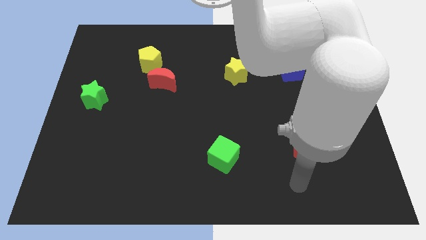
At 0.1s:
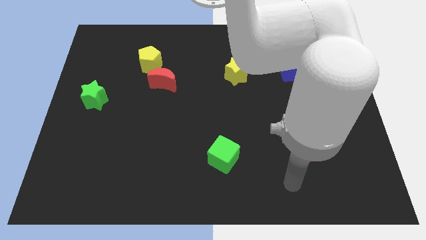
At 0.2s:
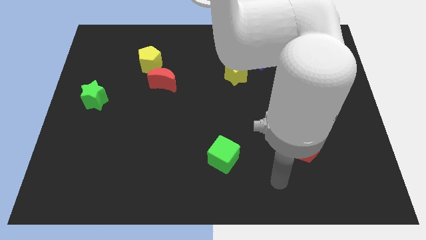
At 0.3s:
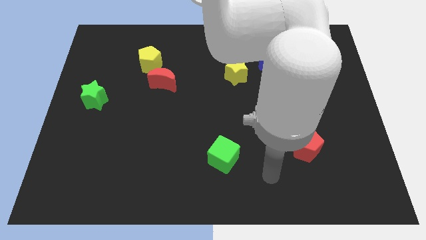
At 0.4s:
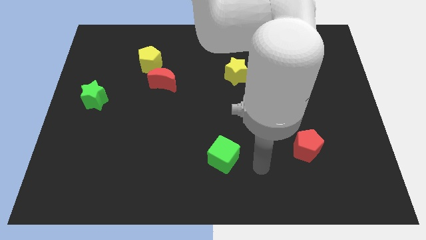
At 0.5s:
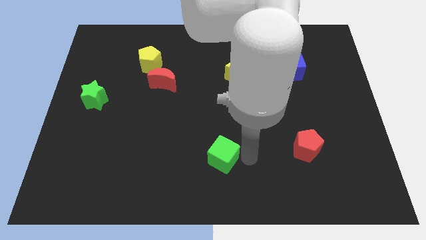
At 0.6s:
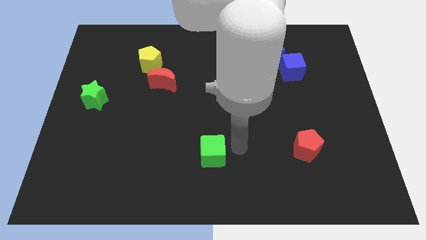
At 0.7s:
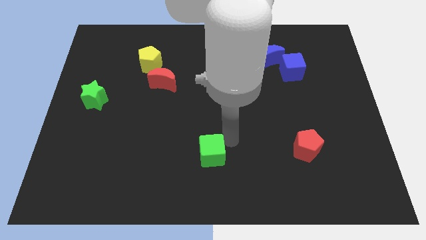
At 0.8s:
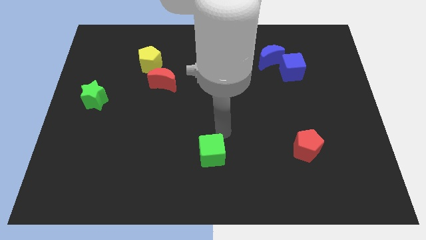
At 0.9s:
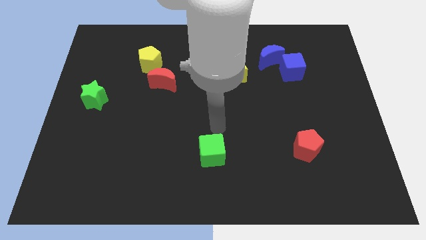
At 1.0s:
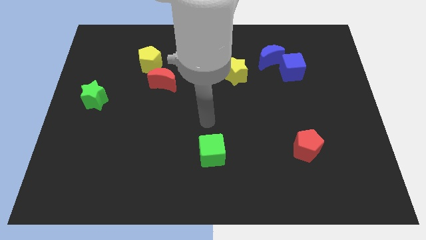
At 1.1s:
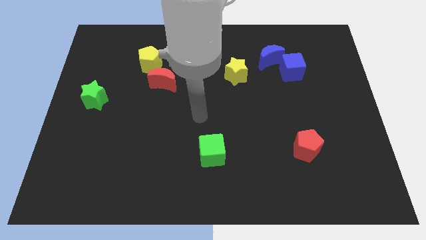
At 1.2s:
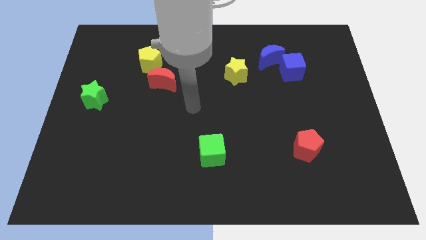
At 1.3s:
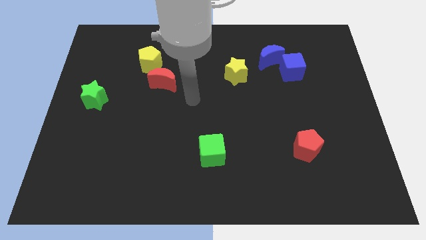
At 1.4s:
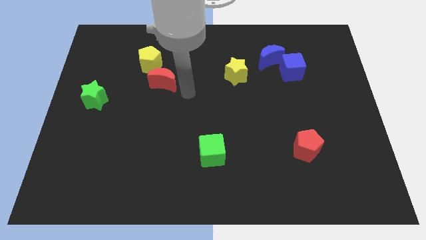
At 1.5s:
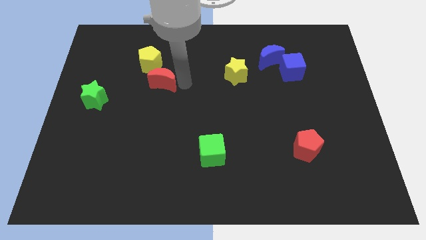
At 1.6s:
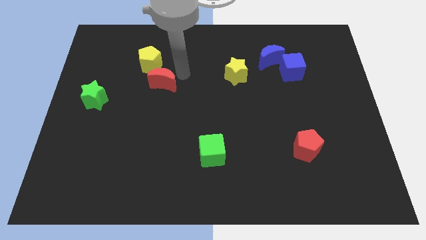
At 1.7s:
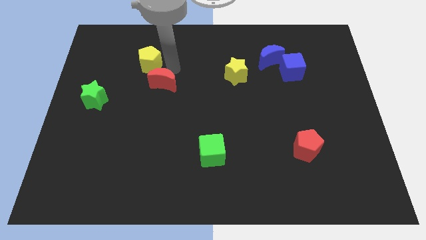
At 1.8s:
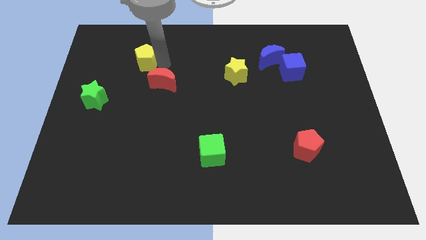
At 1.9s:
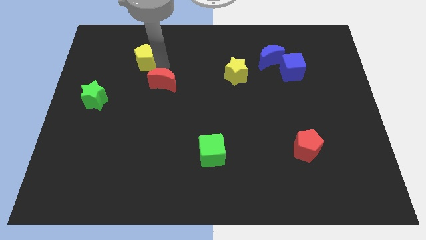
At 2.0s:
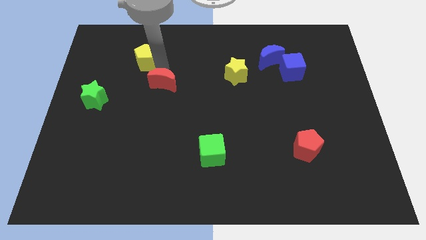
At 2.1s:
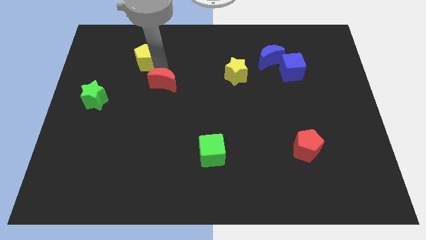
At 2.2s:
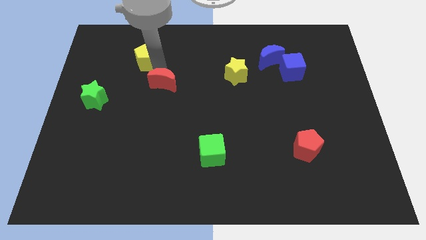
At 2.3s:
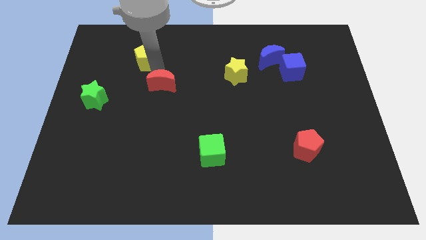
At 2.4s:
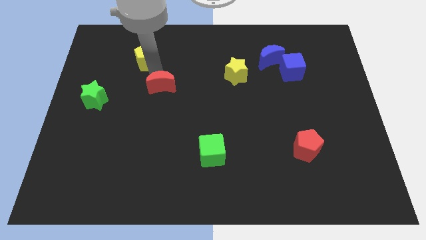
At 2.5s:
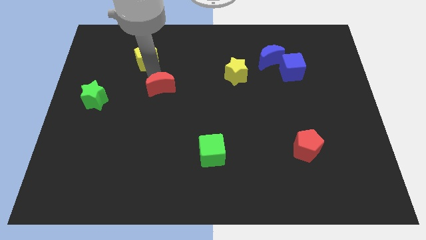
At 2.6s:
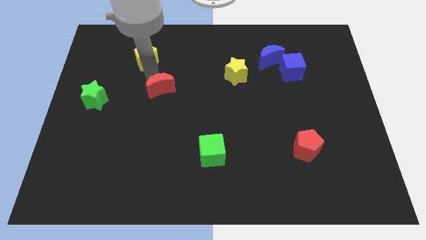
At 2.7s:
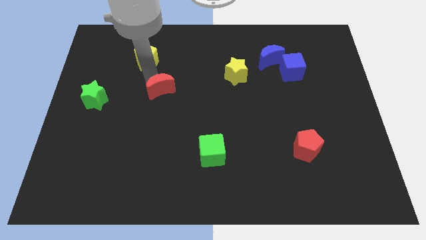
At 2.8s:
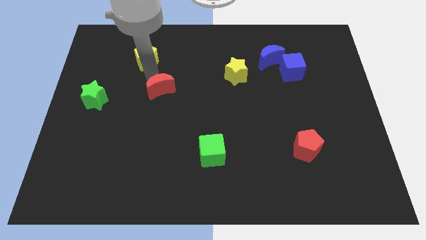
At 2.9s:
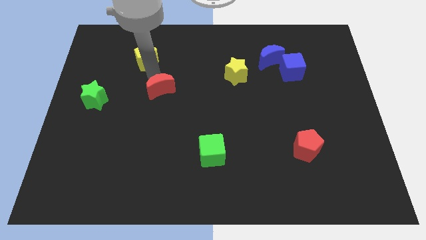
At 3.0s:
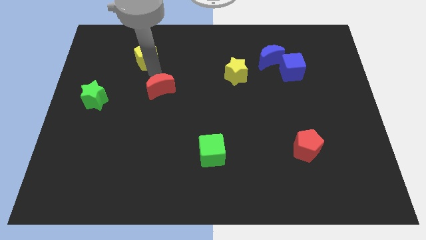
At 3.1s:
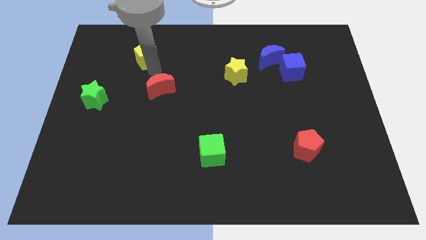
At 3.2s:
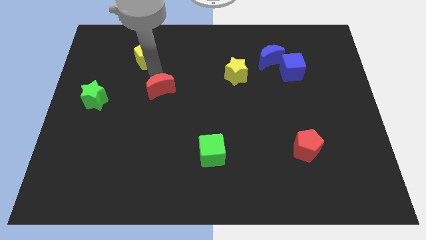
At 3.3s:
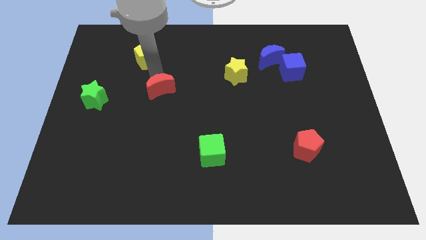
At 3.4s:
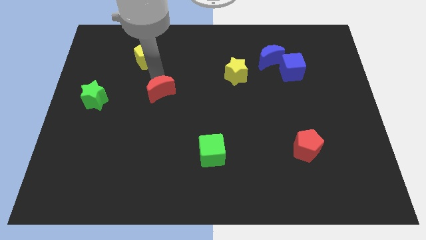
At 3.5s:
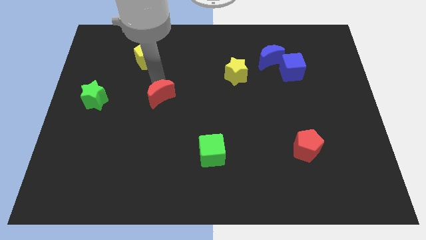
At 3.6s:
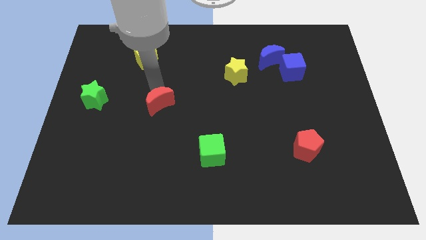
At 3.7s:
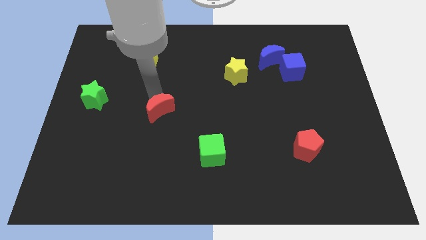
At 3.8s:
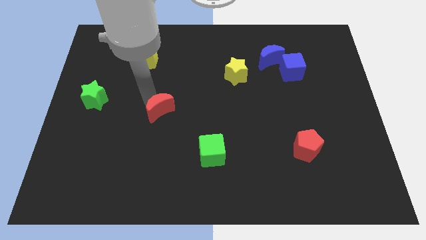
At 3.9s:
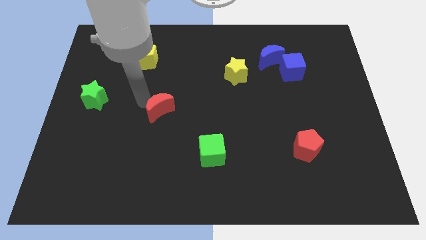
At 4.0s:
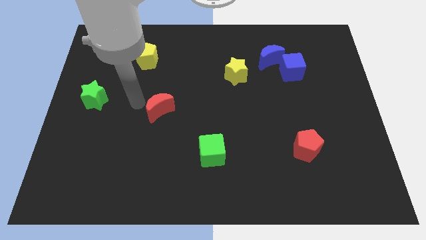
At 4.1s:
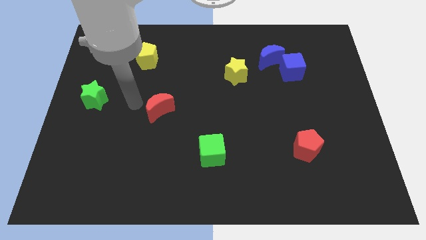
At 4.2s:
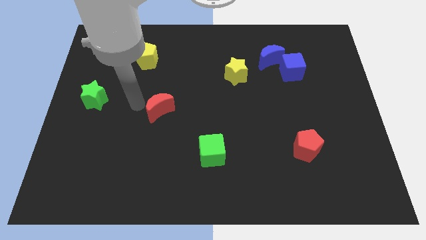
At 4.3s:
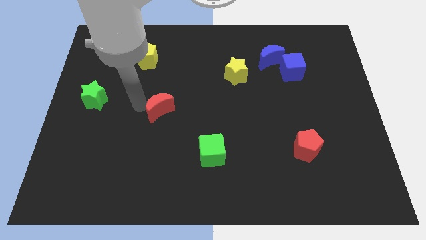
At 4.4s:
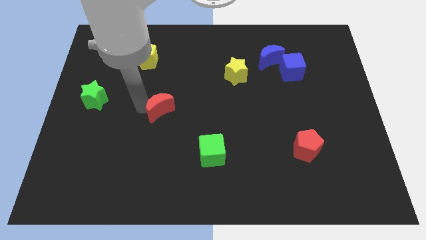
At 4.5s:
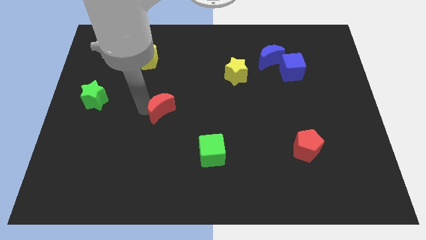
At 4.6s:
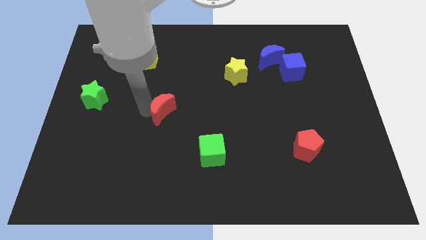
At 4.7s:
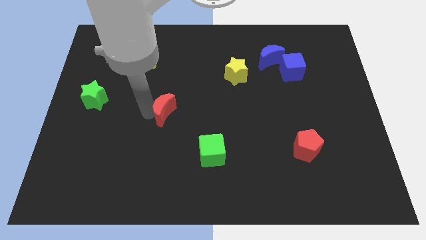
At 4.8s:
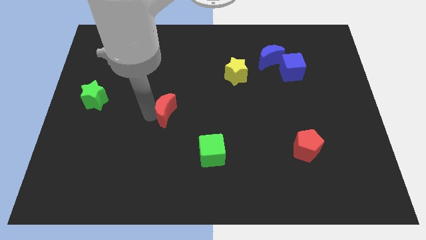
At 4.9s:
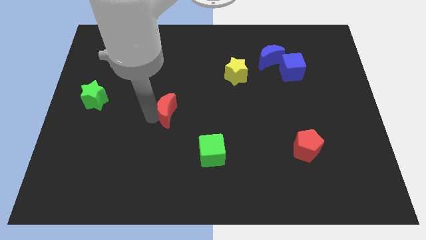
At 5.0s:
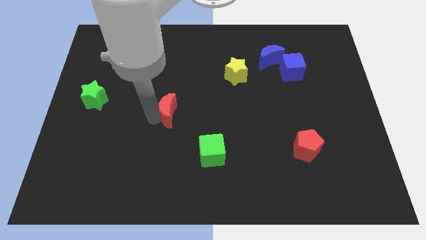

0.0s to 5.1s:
slightly move the red moon down and right diagonally

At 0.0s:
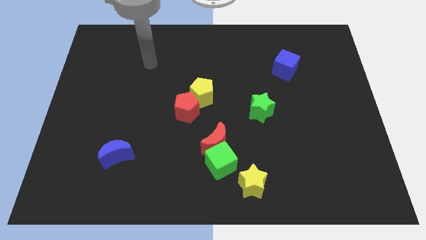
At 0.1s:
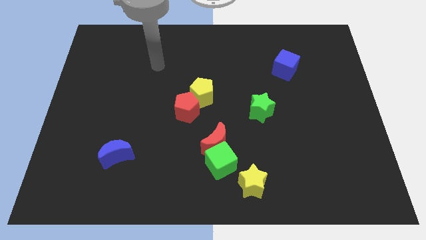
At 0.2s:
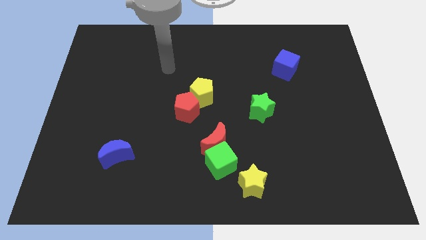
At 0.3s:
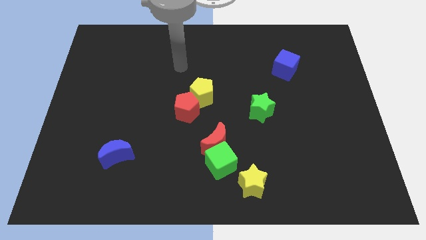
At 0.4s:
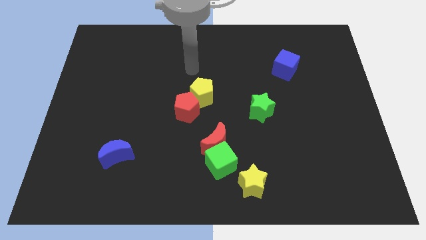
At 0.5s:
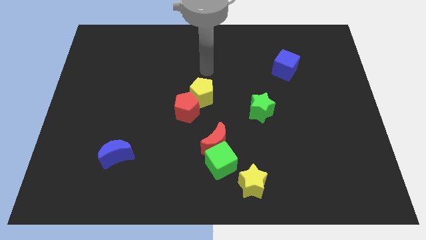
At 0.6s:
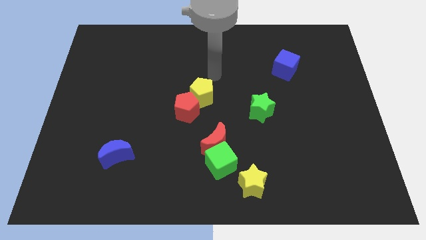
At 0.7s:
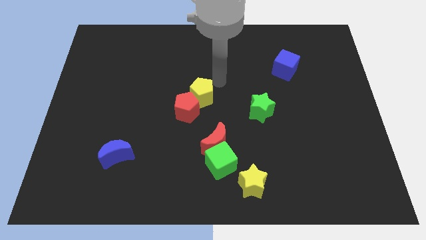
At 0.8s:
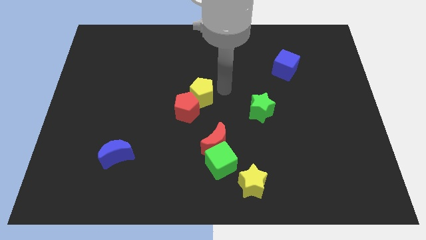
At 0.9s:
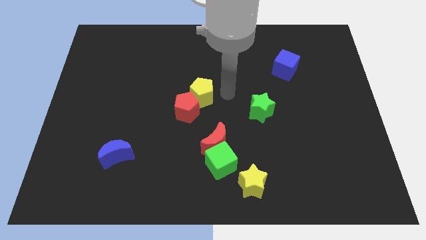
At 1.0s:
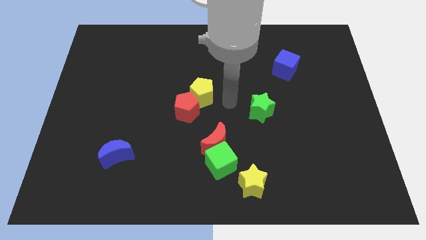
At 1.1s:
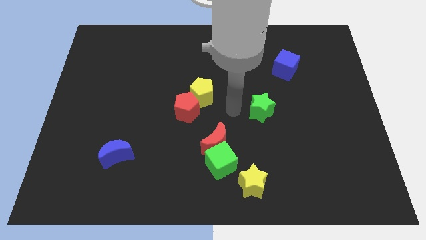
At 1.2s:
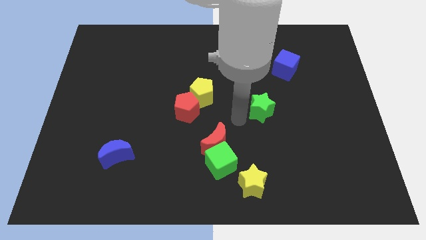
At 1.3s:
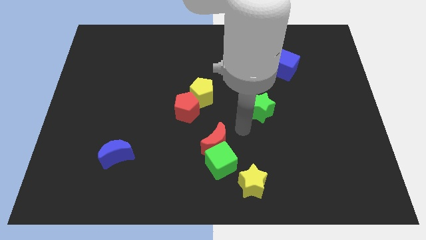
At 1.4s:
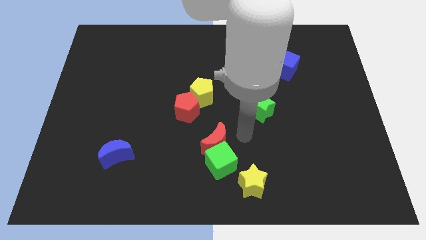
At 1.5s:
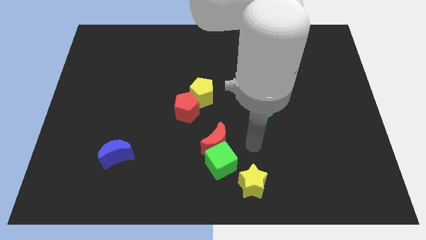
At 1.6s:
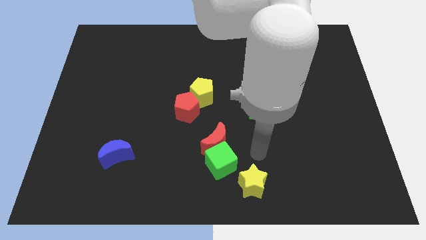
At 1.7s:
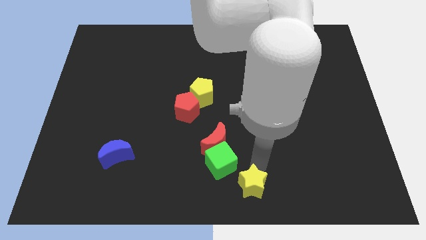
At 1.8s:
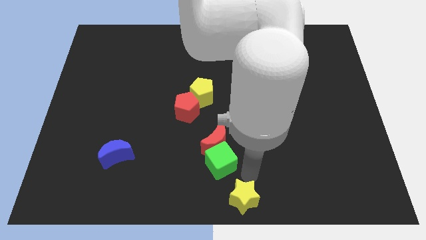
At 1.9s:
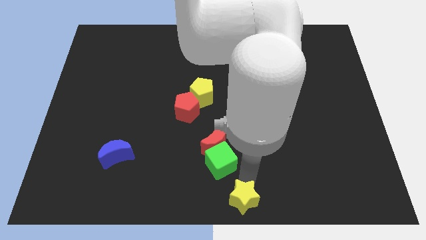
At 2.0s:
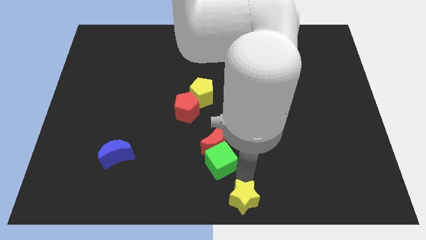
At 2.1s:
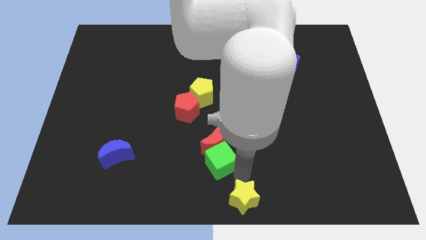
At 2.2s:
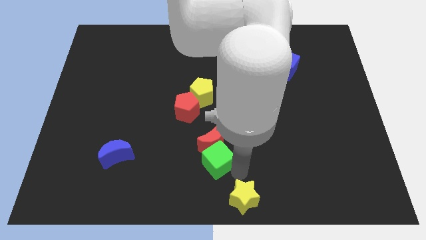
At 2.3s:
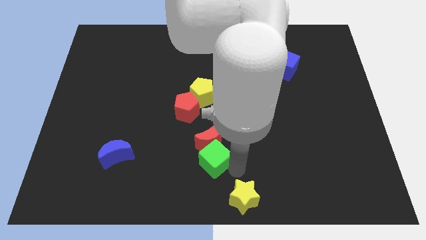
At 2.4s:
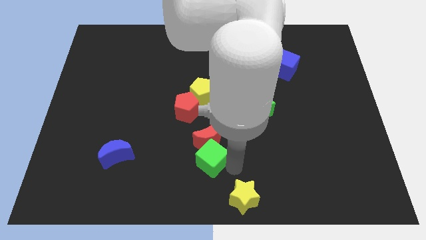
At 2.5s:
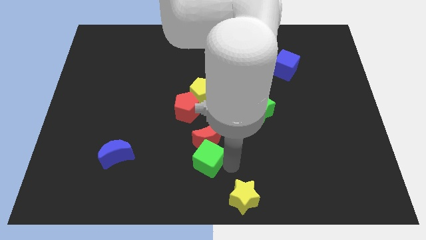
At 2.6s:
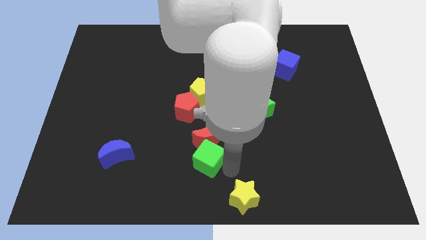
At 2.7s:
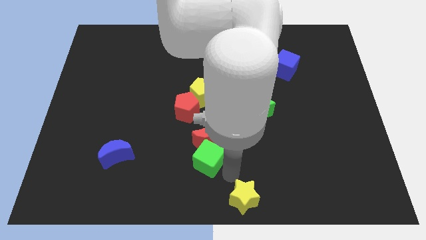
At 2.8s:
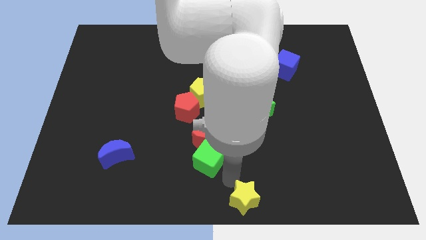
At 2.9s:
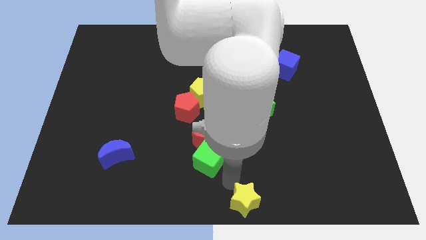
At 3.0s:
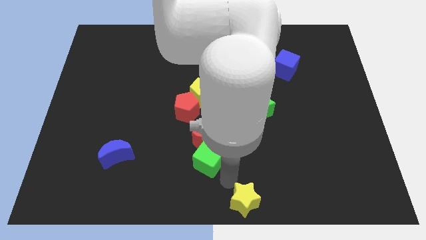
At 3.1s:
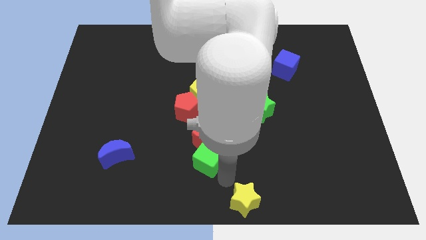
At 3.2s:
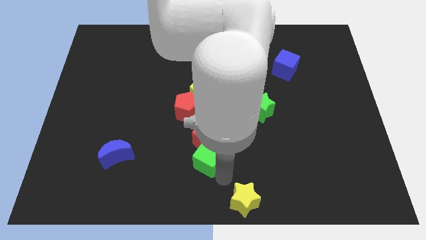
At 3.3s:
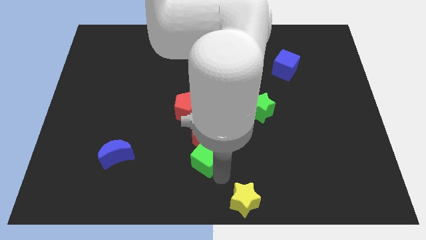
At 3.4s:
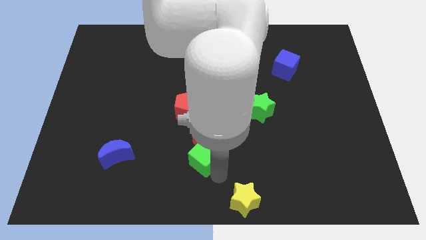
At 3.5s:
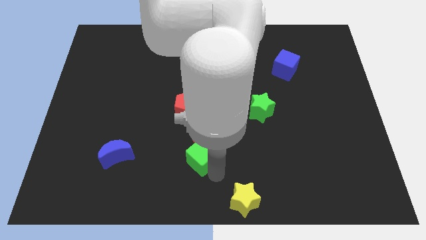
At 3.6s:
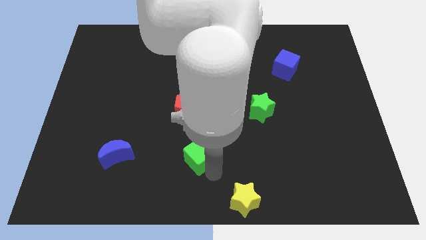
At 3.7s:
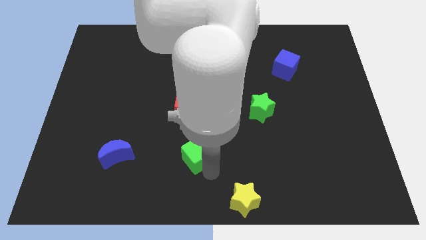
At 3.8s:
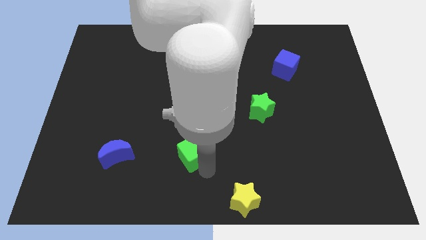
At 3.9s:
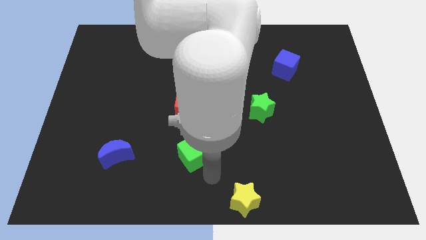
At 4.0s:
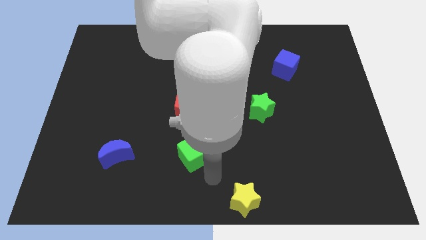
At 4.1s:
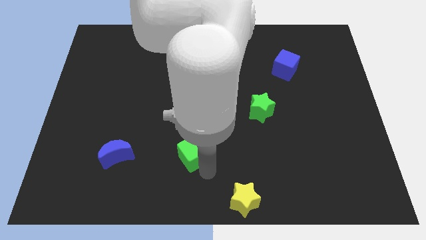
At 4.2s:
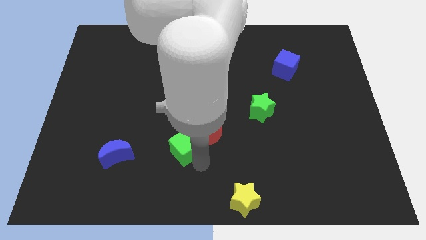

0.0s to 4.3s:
slightly move the green cube upwards and left
